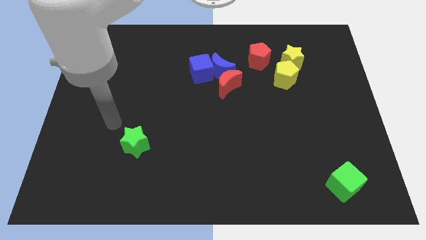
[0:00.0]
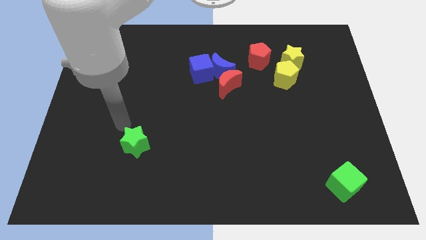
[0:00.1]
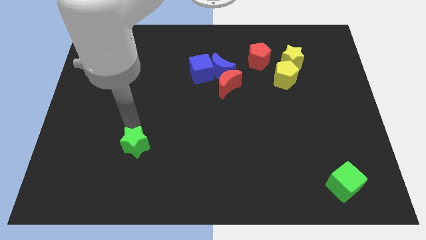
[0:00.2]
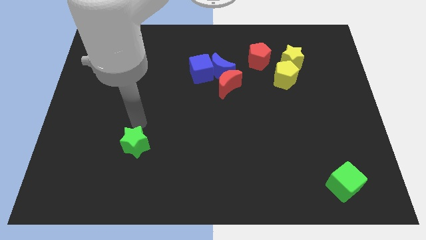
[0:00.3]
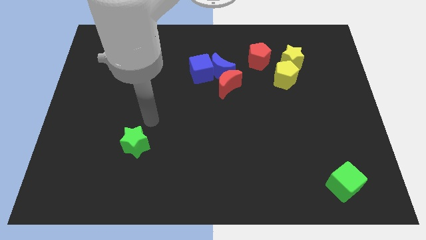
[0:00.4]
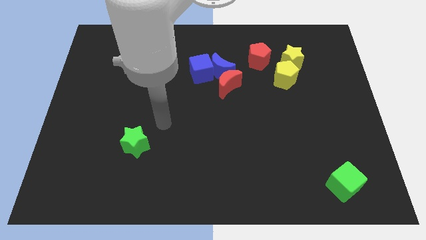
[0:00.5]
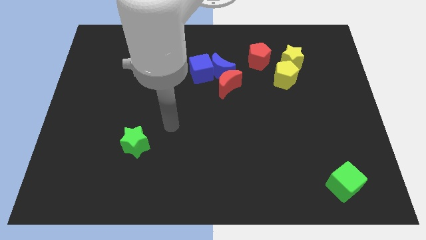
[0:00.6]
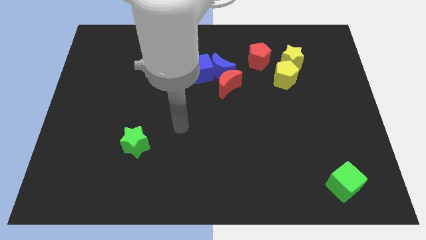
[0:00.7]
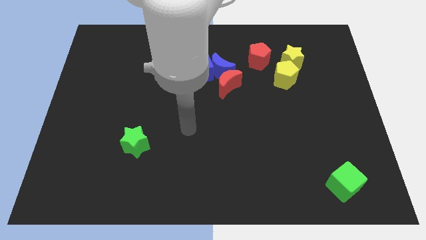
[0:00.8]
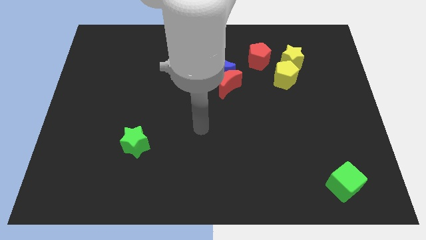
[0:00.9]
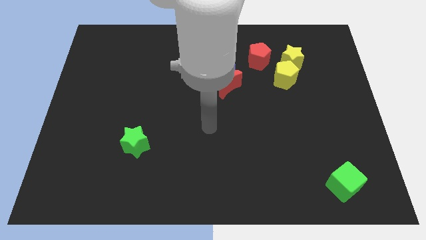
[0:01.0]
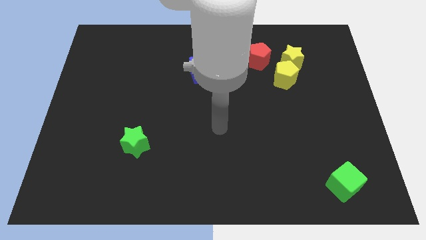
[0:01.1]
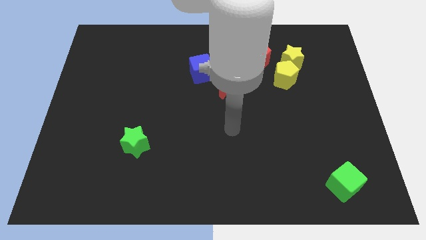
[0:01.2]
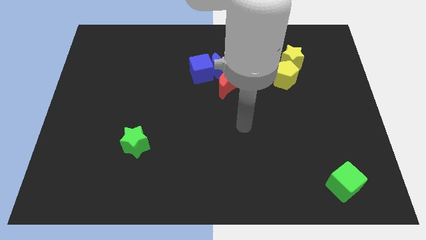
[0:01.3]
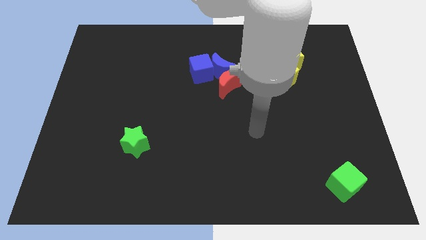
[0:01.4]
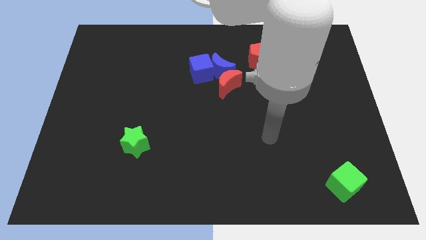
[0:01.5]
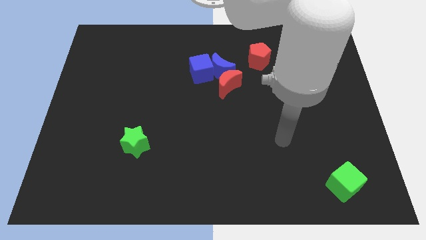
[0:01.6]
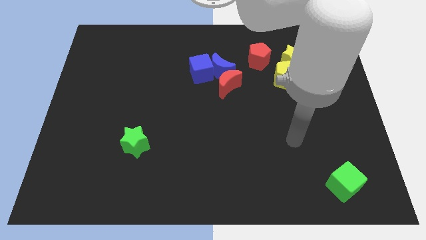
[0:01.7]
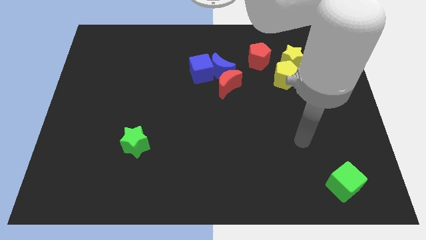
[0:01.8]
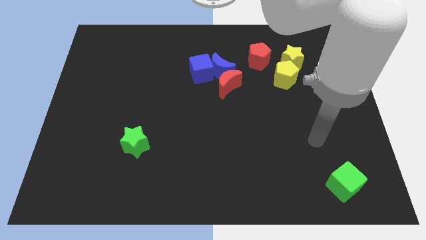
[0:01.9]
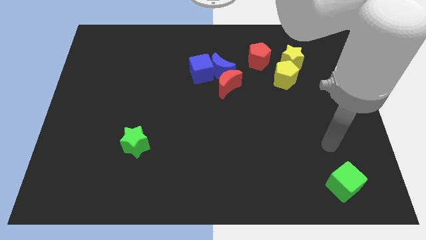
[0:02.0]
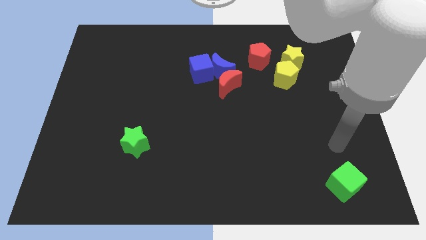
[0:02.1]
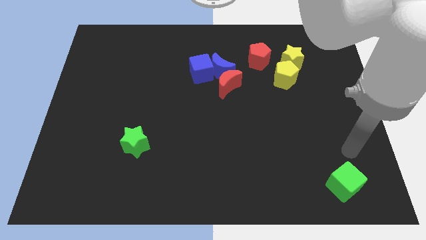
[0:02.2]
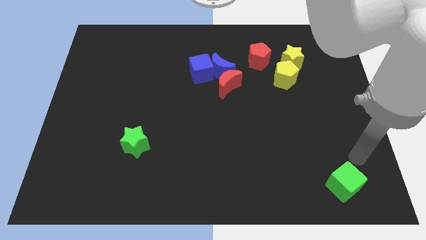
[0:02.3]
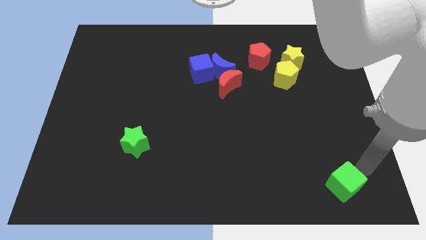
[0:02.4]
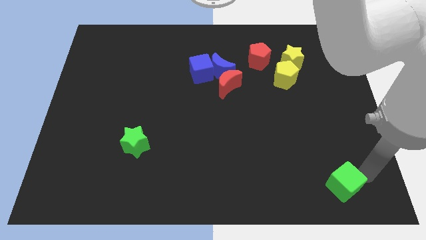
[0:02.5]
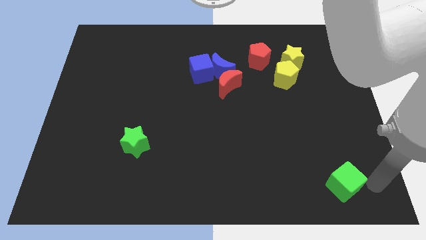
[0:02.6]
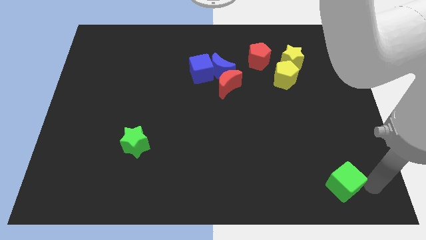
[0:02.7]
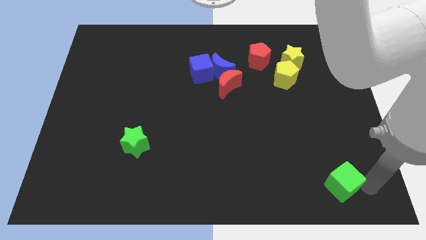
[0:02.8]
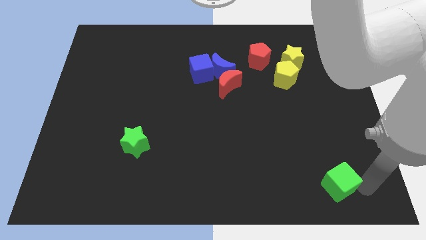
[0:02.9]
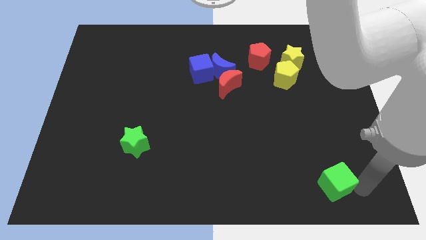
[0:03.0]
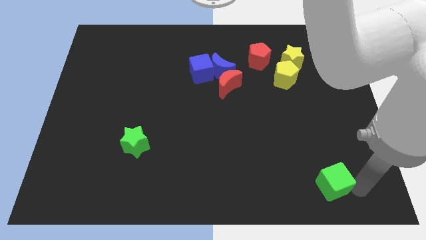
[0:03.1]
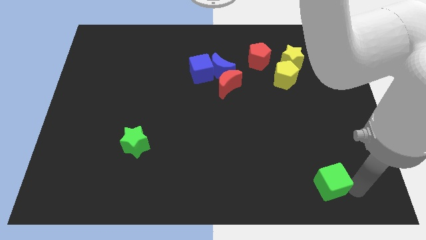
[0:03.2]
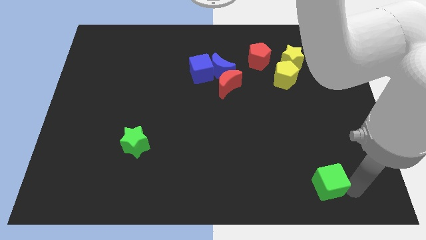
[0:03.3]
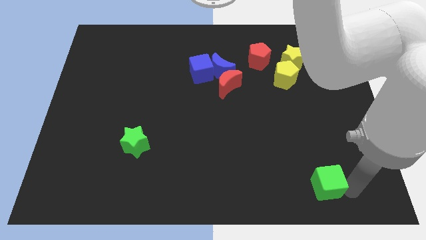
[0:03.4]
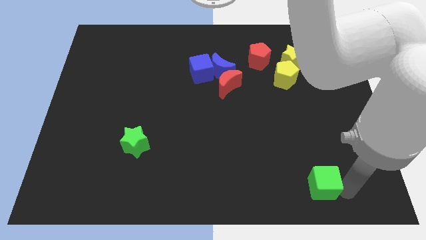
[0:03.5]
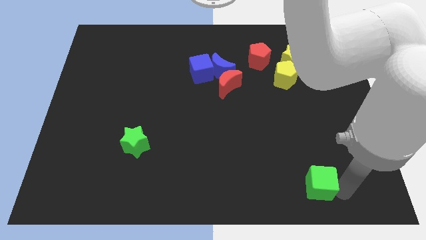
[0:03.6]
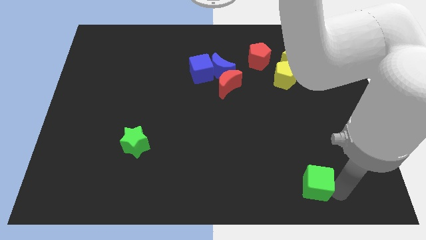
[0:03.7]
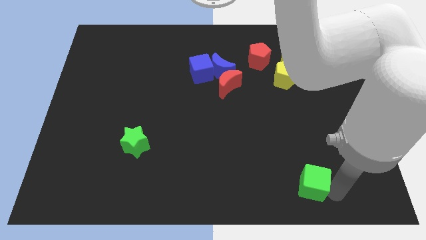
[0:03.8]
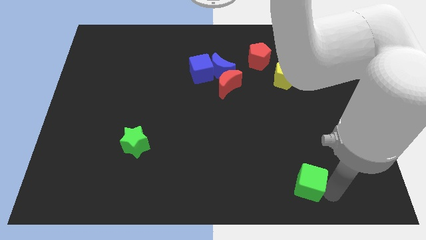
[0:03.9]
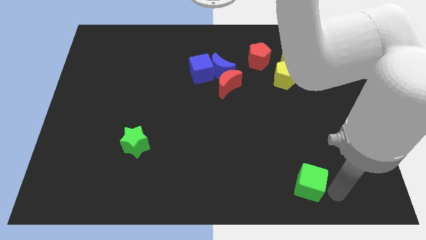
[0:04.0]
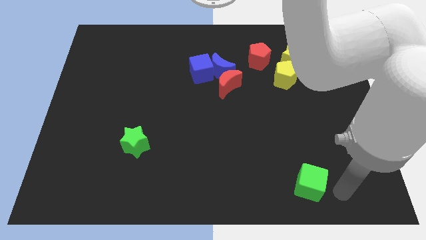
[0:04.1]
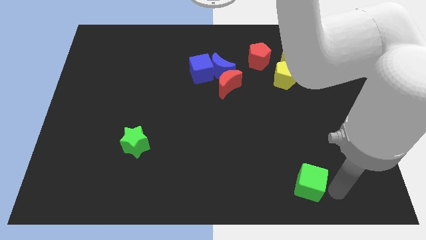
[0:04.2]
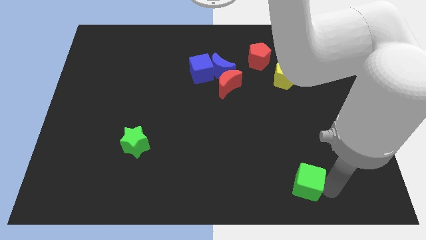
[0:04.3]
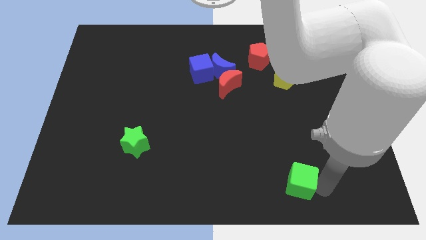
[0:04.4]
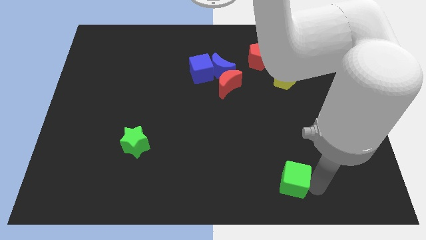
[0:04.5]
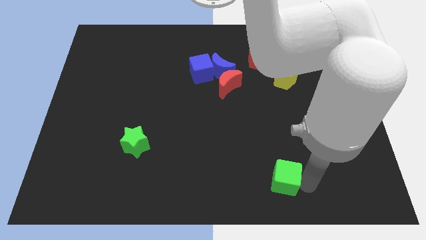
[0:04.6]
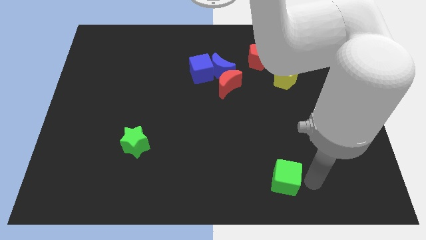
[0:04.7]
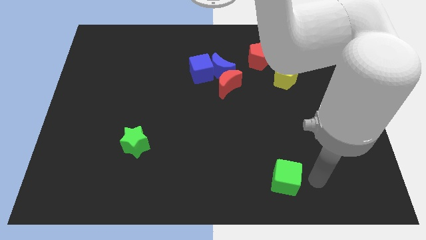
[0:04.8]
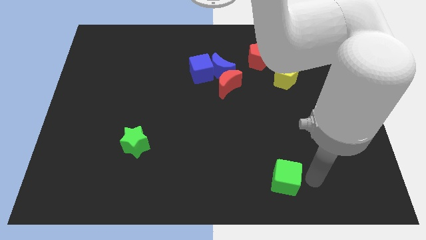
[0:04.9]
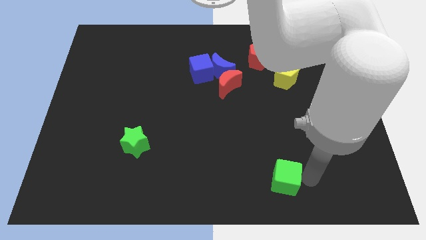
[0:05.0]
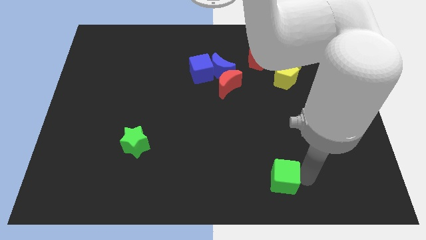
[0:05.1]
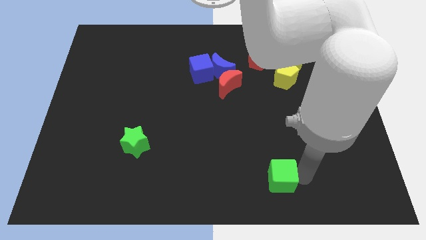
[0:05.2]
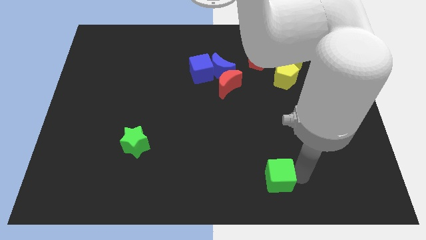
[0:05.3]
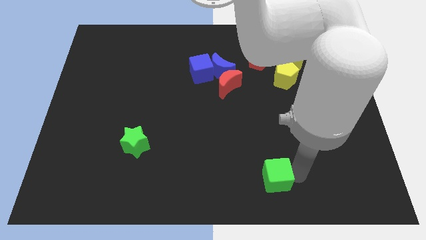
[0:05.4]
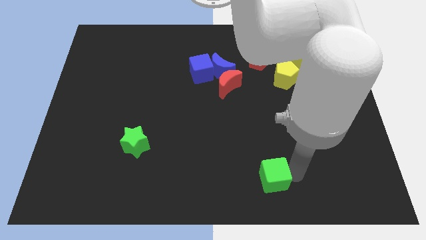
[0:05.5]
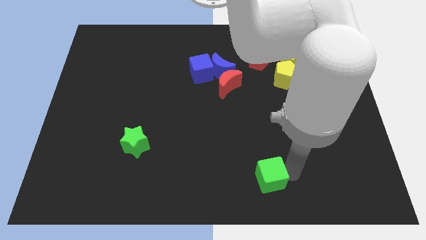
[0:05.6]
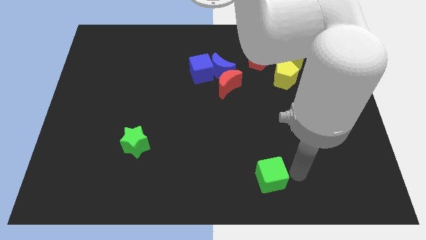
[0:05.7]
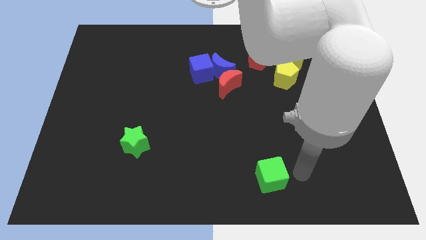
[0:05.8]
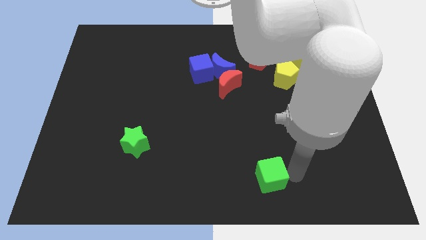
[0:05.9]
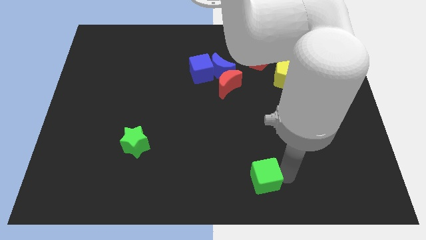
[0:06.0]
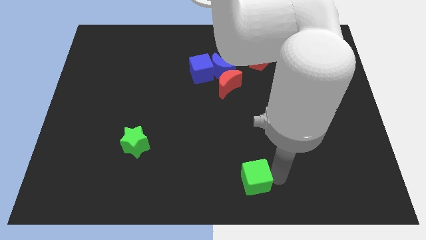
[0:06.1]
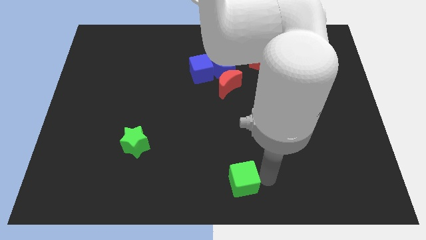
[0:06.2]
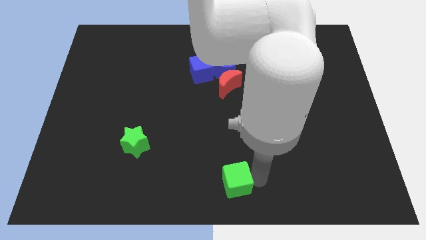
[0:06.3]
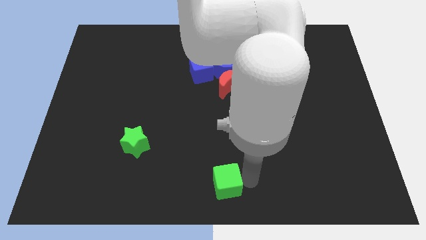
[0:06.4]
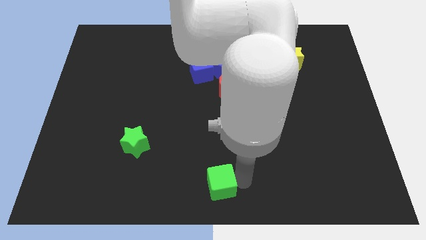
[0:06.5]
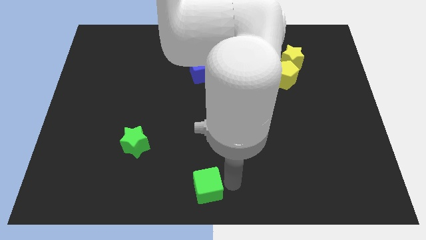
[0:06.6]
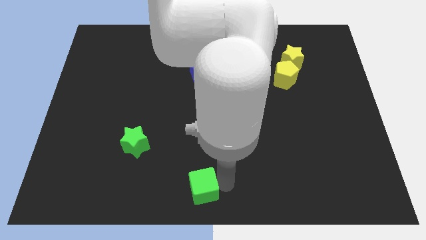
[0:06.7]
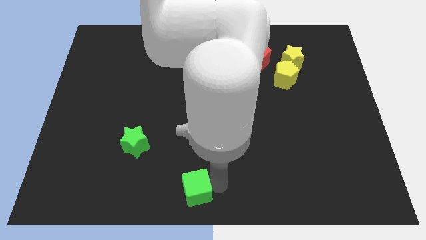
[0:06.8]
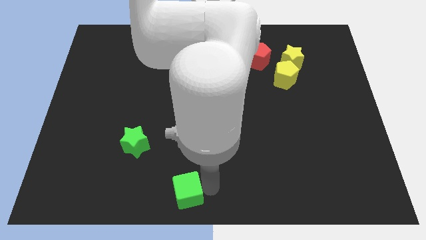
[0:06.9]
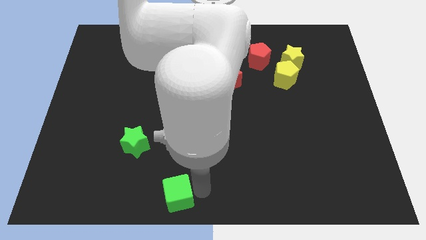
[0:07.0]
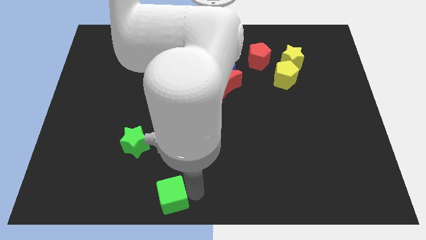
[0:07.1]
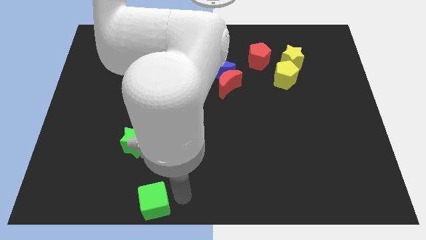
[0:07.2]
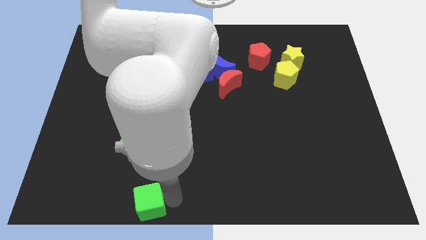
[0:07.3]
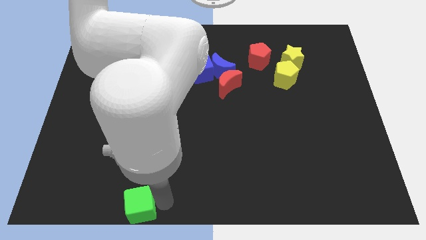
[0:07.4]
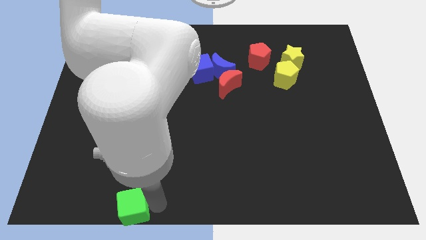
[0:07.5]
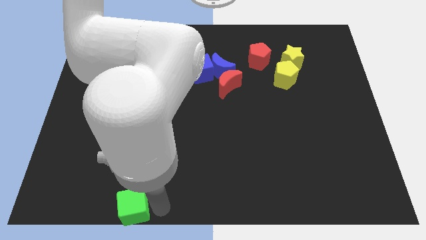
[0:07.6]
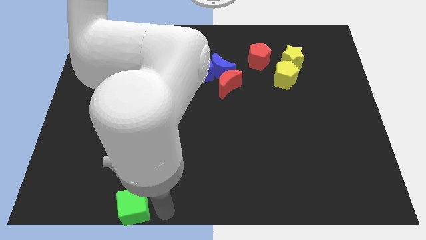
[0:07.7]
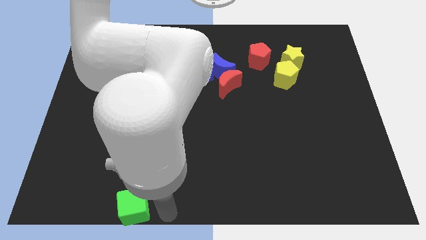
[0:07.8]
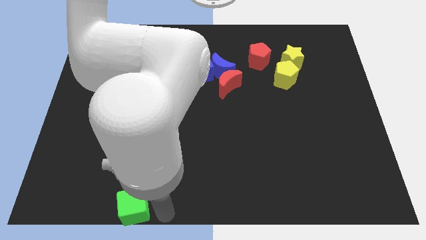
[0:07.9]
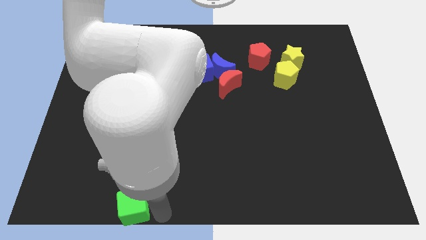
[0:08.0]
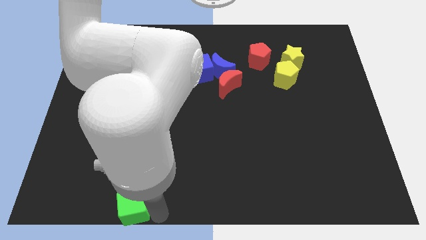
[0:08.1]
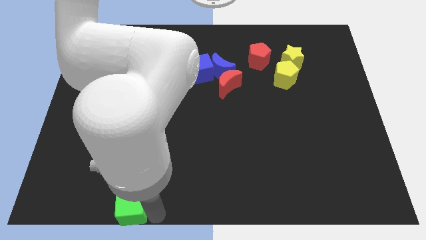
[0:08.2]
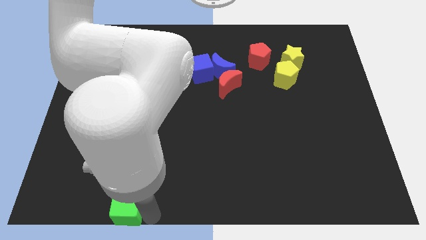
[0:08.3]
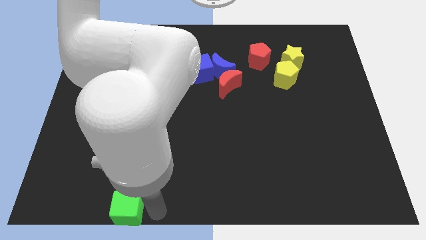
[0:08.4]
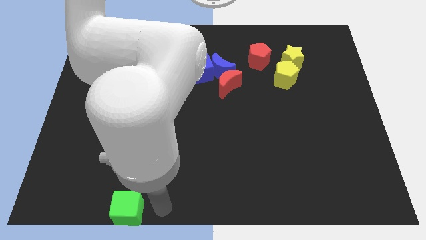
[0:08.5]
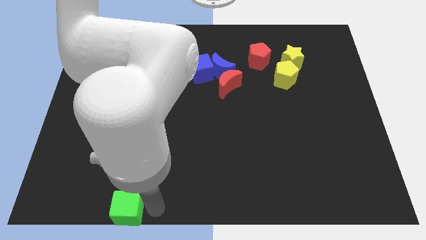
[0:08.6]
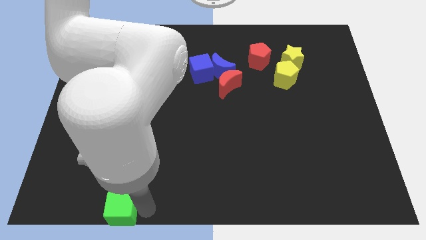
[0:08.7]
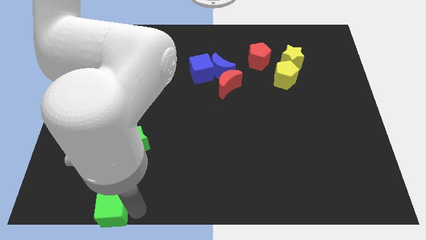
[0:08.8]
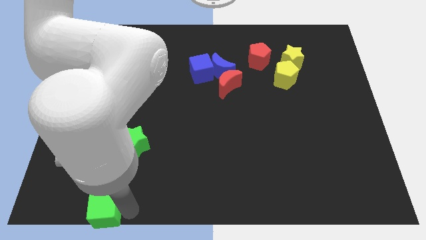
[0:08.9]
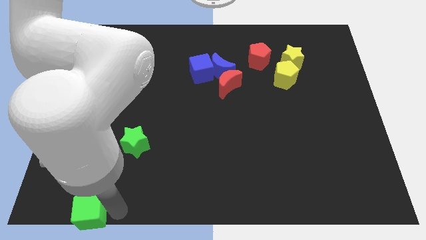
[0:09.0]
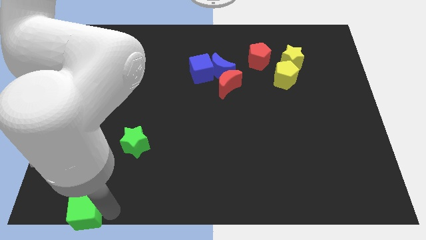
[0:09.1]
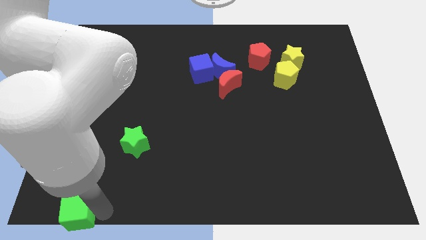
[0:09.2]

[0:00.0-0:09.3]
slide the green cube to the bottom left of the board
